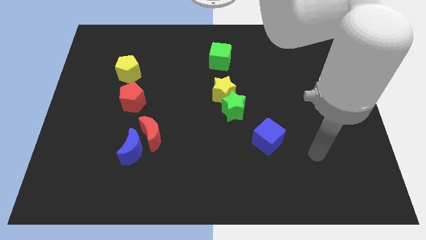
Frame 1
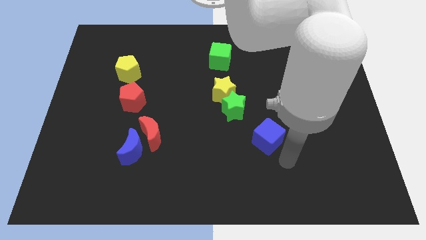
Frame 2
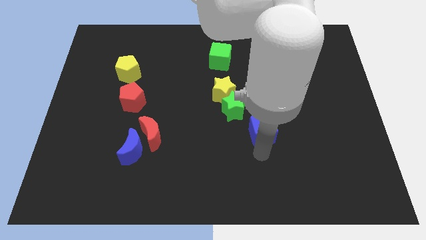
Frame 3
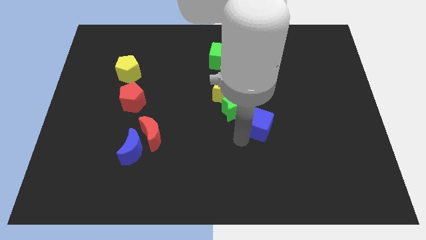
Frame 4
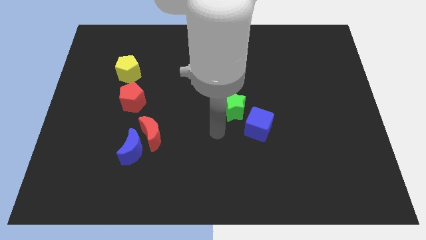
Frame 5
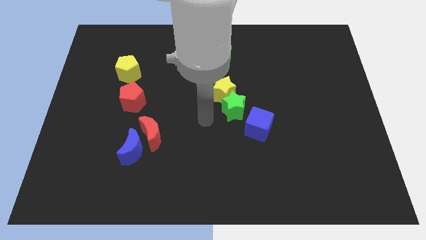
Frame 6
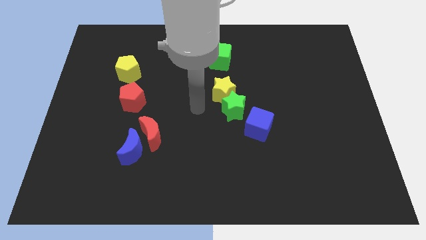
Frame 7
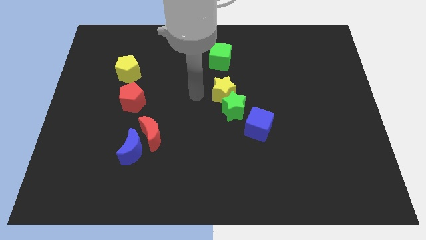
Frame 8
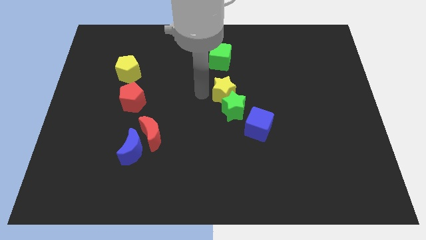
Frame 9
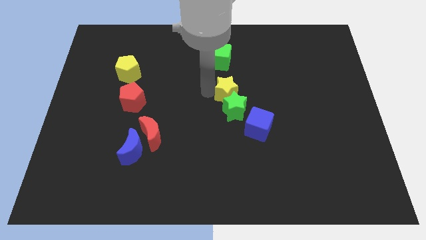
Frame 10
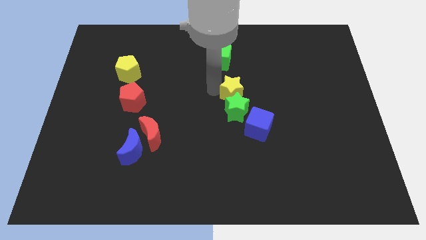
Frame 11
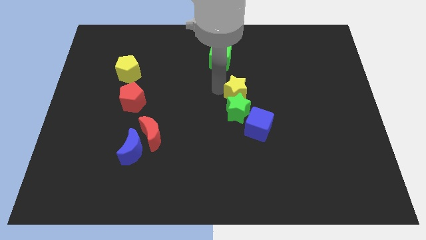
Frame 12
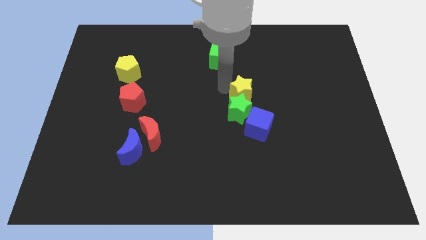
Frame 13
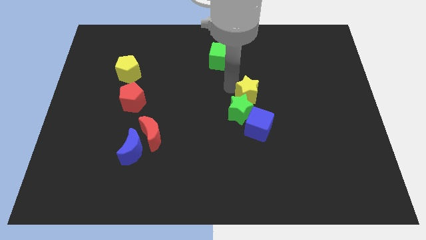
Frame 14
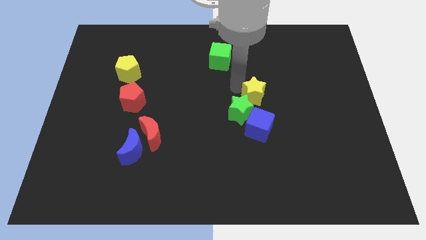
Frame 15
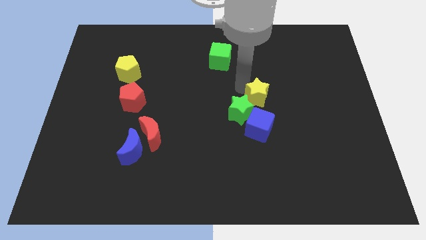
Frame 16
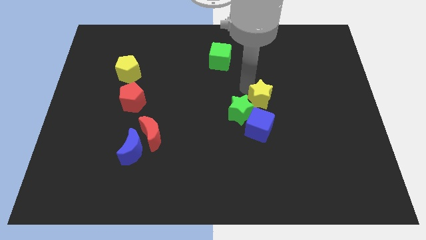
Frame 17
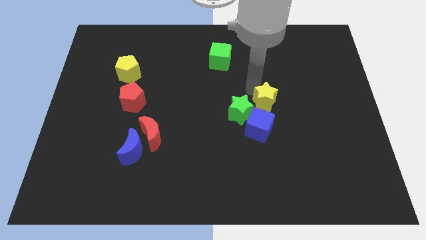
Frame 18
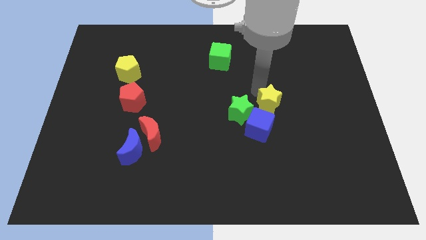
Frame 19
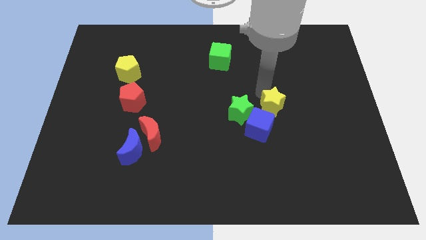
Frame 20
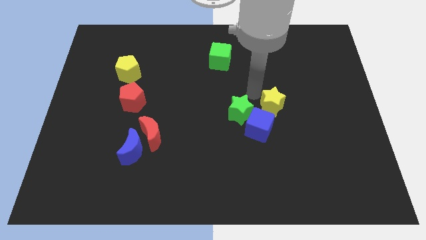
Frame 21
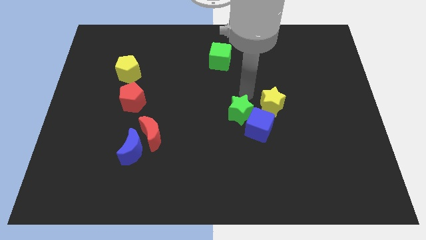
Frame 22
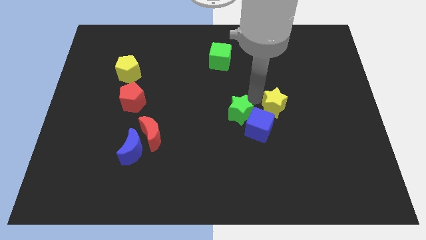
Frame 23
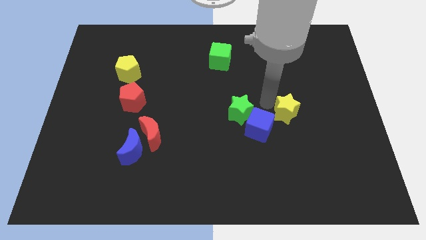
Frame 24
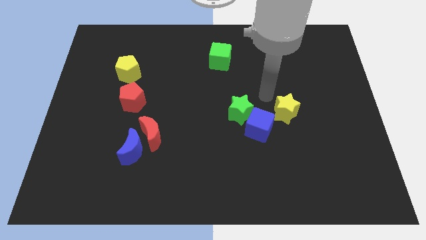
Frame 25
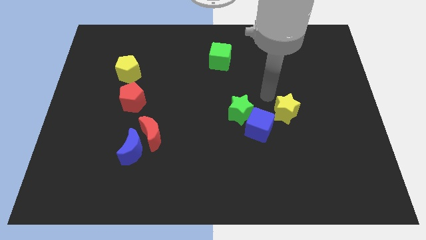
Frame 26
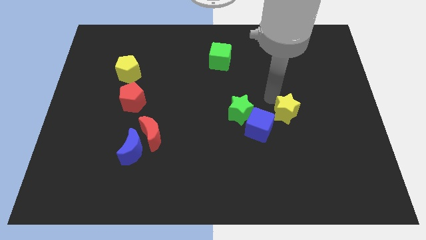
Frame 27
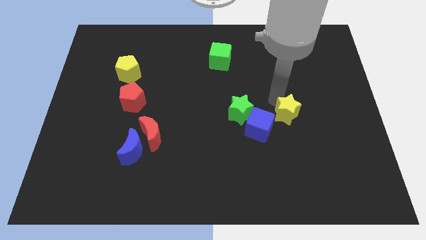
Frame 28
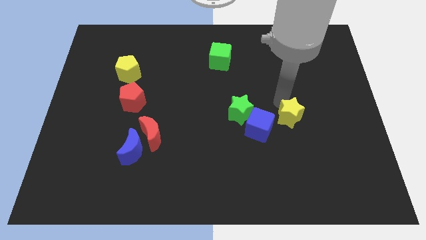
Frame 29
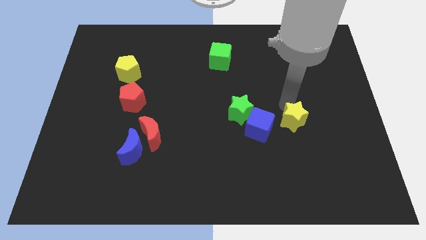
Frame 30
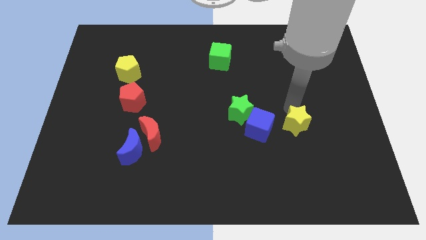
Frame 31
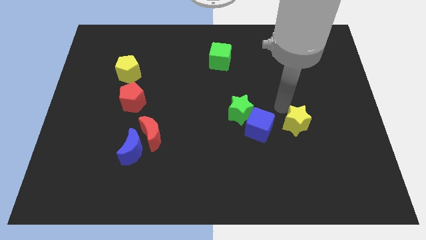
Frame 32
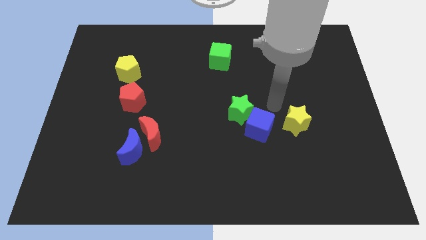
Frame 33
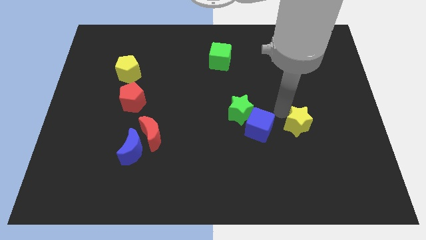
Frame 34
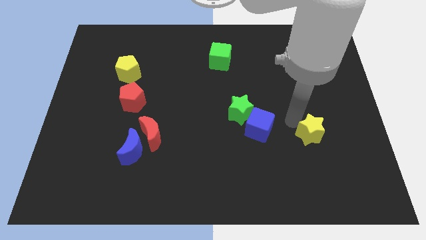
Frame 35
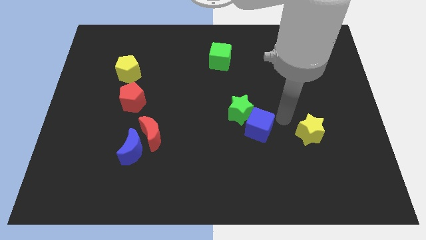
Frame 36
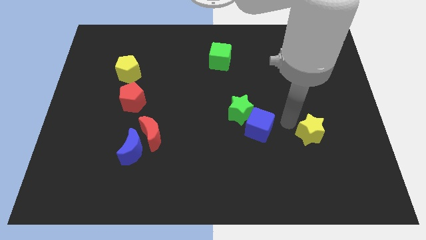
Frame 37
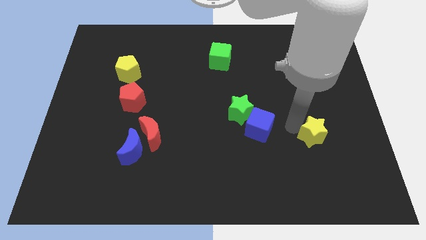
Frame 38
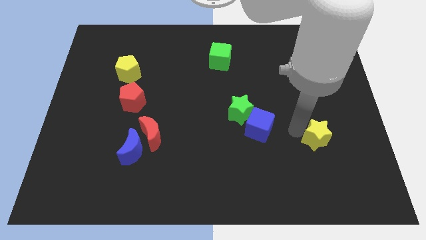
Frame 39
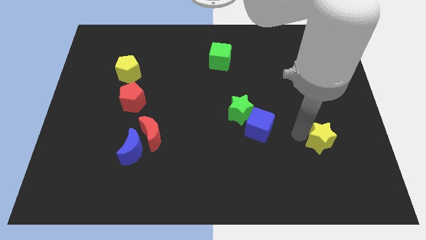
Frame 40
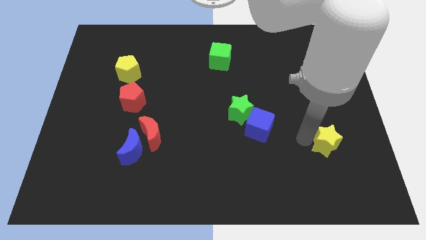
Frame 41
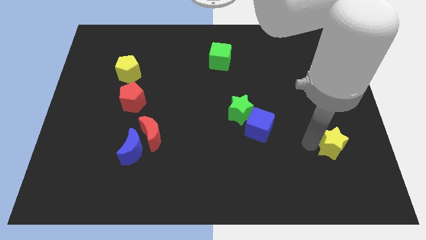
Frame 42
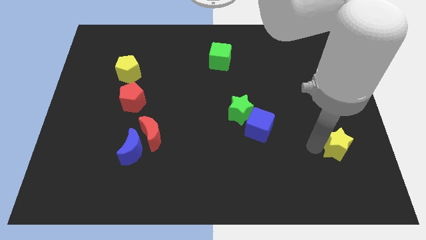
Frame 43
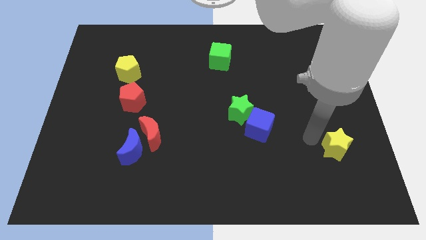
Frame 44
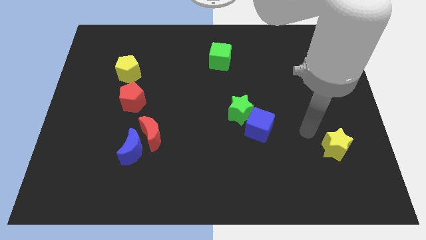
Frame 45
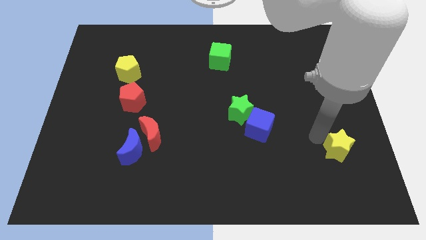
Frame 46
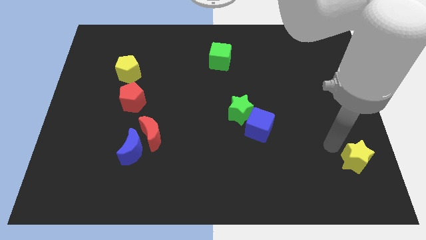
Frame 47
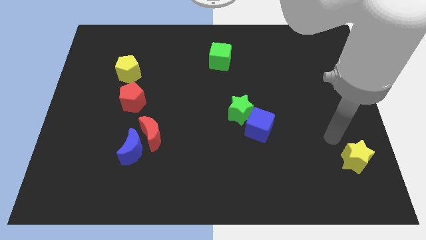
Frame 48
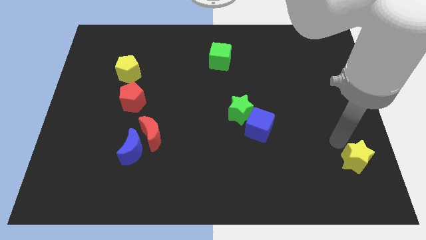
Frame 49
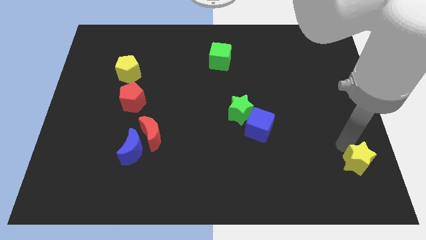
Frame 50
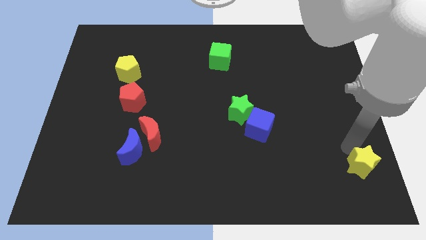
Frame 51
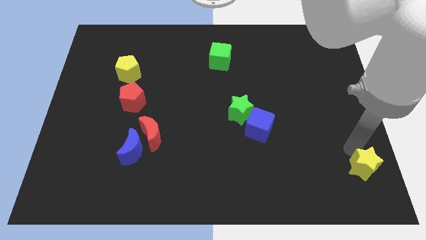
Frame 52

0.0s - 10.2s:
put the yellow star to the bottom right

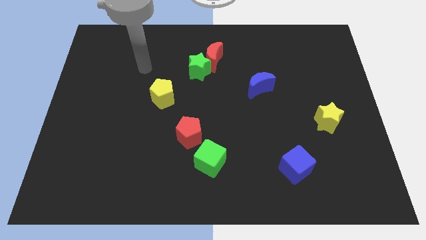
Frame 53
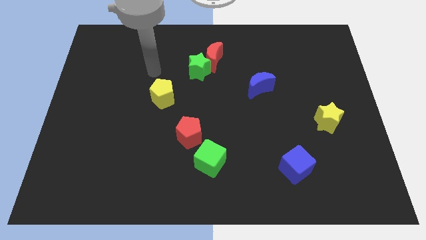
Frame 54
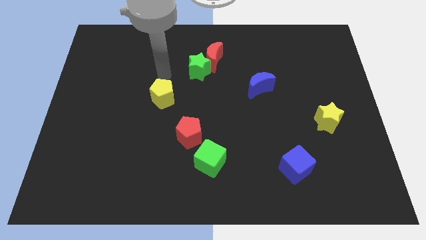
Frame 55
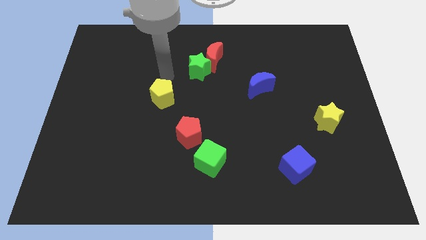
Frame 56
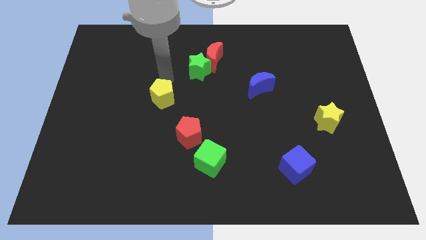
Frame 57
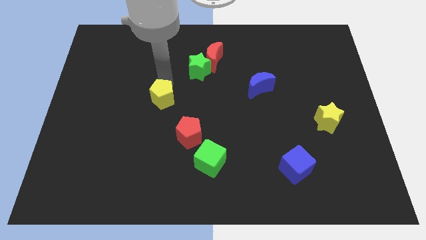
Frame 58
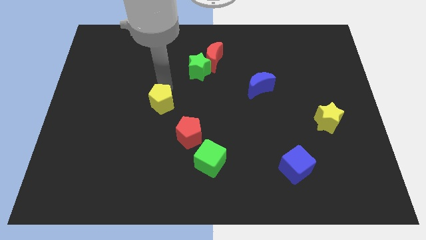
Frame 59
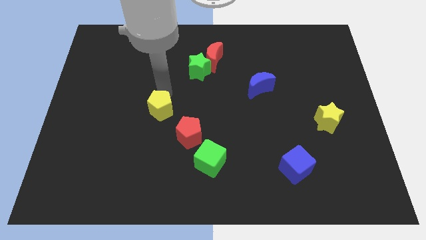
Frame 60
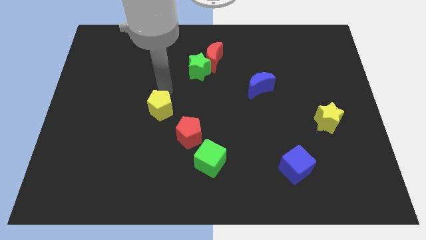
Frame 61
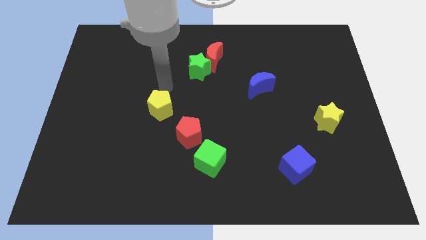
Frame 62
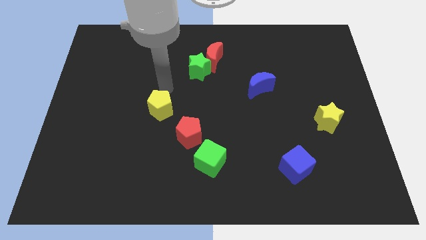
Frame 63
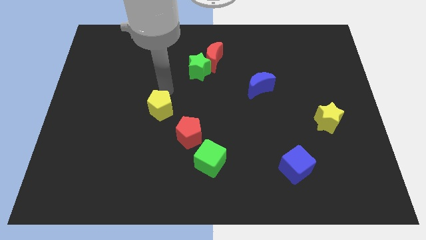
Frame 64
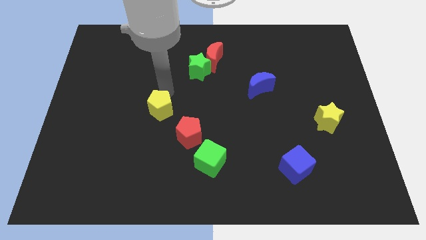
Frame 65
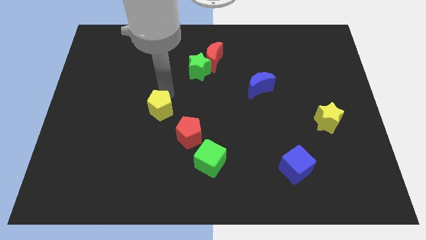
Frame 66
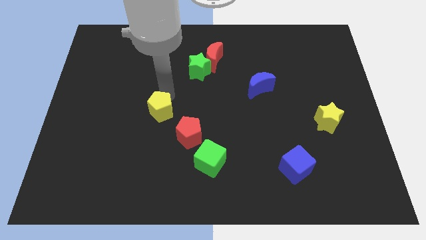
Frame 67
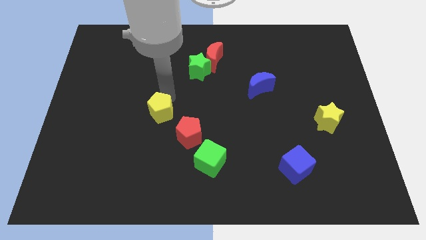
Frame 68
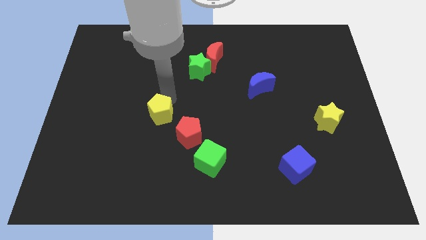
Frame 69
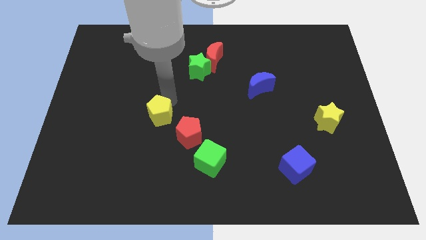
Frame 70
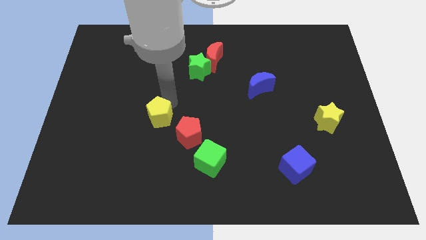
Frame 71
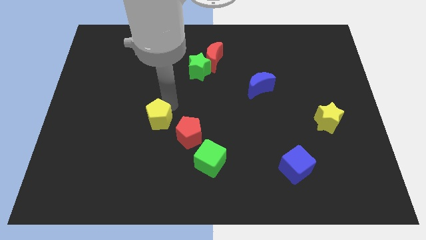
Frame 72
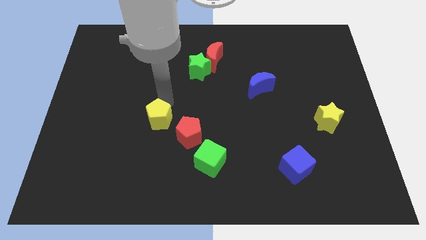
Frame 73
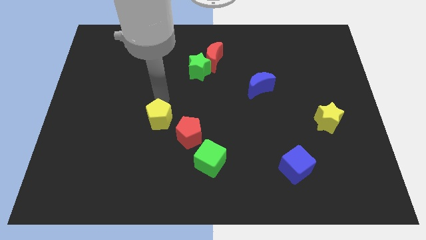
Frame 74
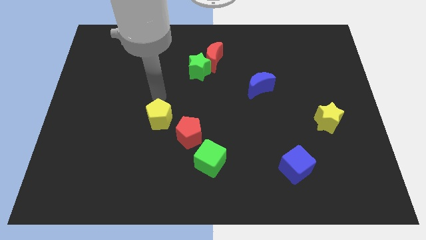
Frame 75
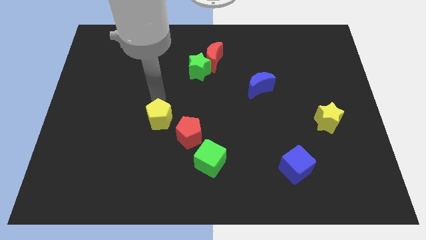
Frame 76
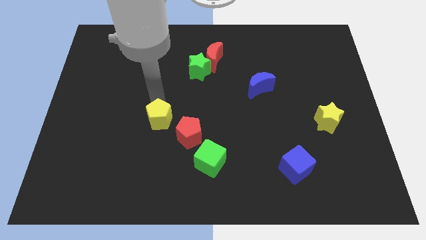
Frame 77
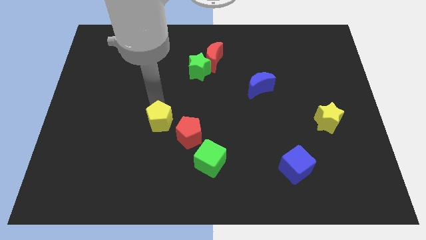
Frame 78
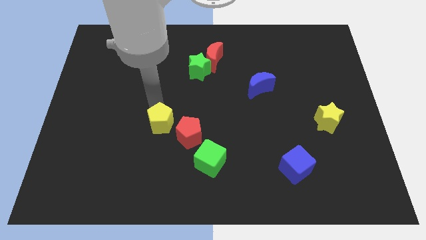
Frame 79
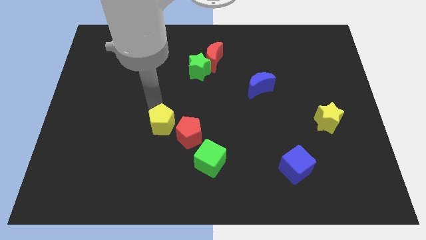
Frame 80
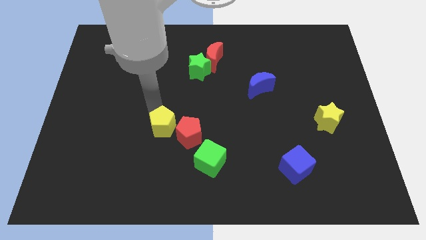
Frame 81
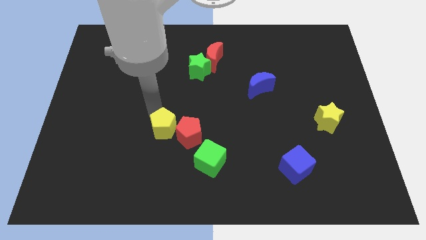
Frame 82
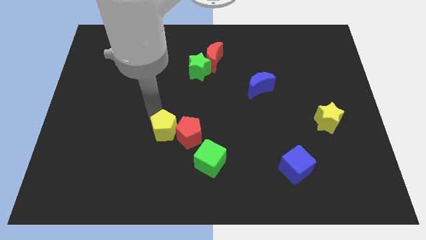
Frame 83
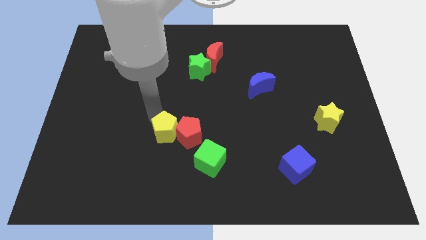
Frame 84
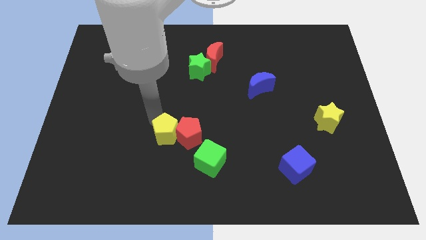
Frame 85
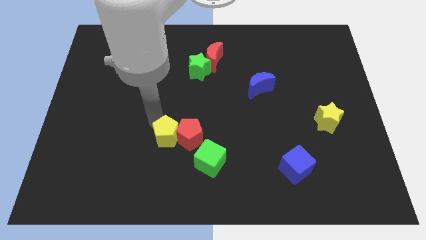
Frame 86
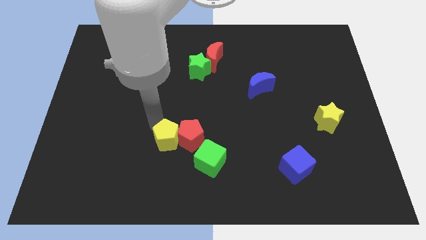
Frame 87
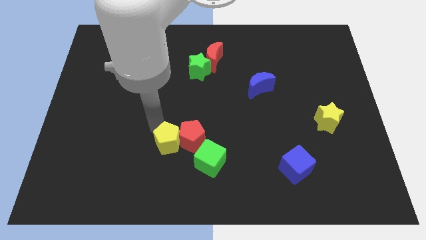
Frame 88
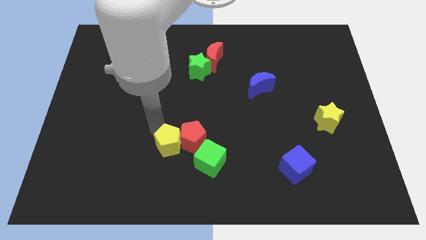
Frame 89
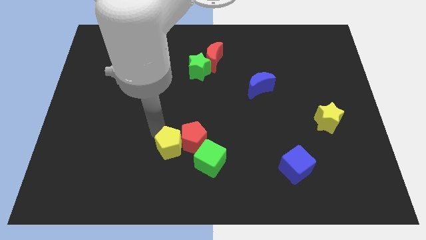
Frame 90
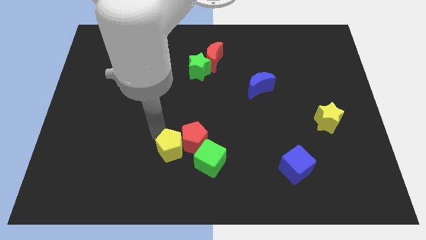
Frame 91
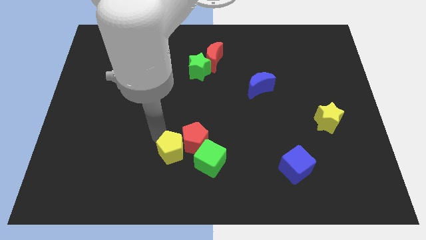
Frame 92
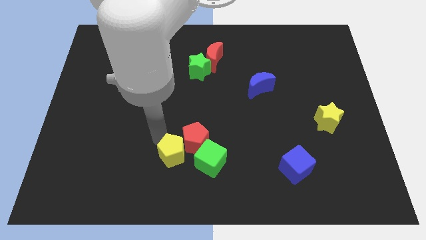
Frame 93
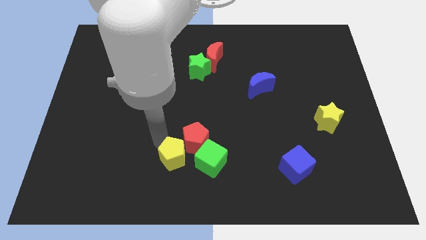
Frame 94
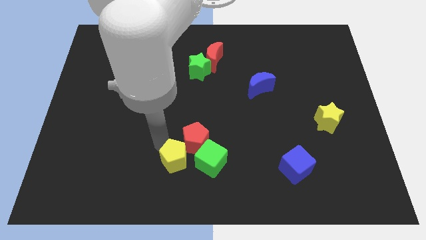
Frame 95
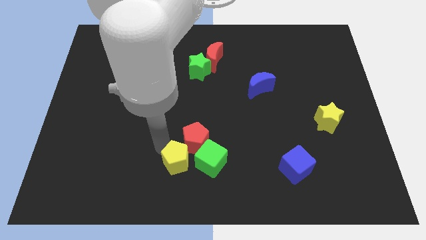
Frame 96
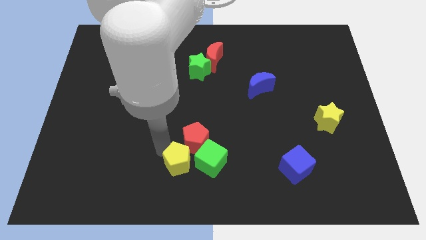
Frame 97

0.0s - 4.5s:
move the yellow pentagon to the bottom side
